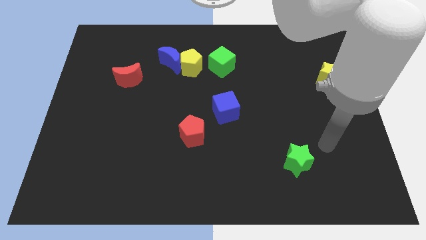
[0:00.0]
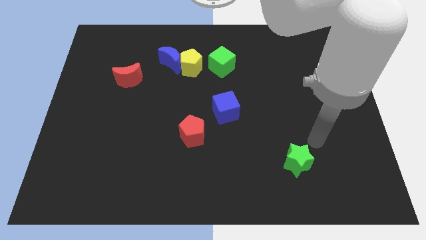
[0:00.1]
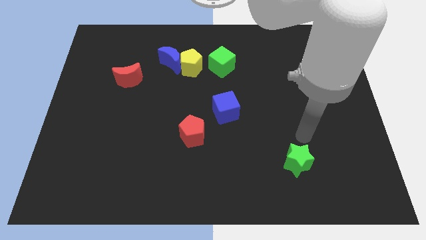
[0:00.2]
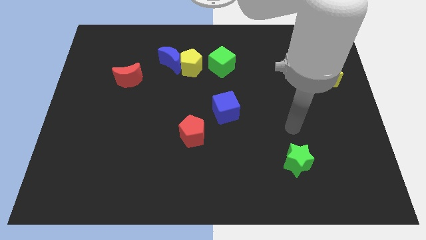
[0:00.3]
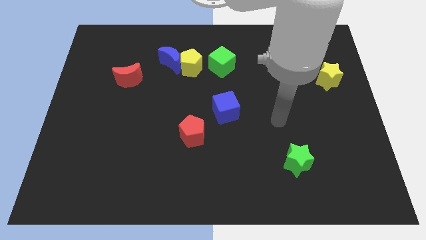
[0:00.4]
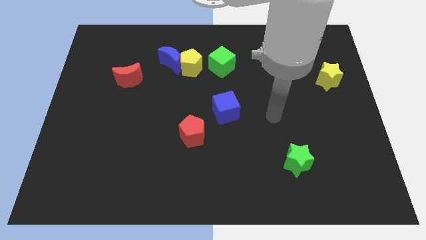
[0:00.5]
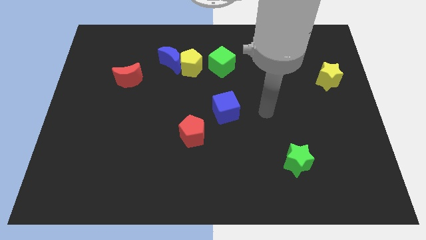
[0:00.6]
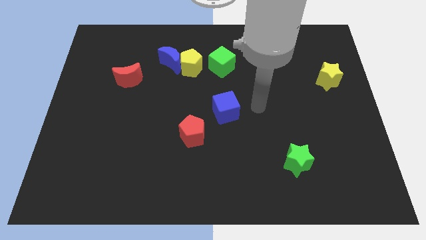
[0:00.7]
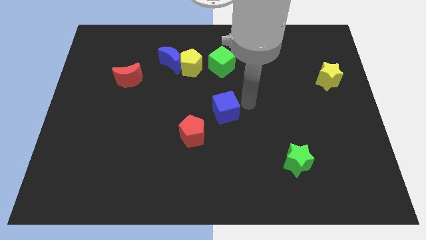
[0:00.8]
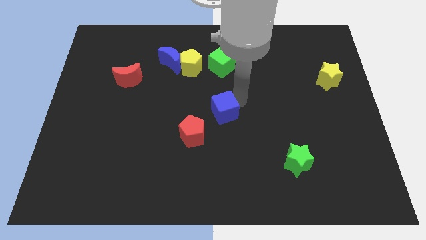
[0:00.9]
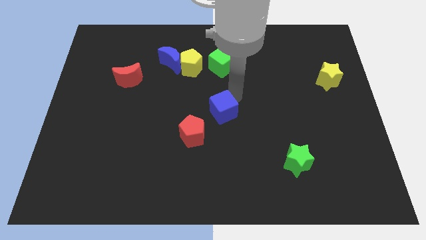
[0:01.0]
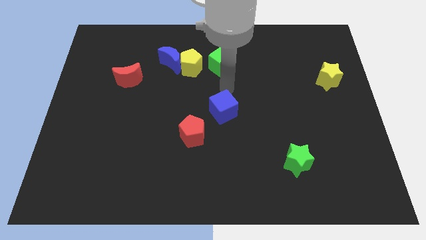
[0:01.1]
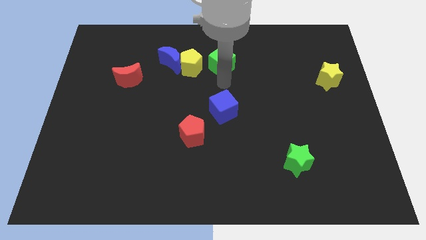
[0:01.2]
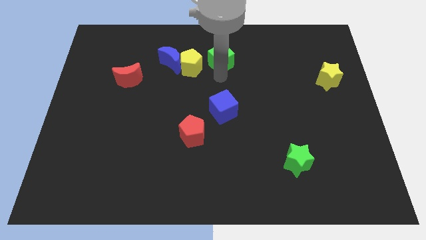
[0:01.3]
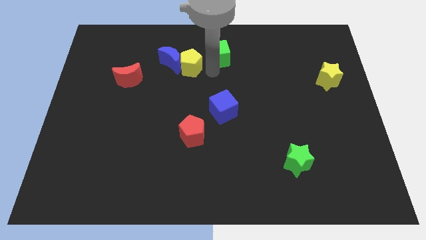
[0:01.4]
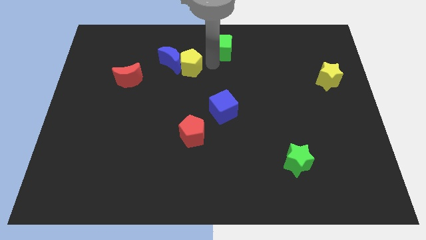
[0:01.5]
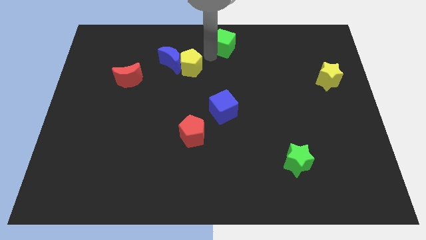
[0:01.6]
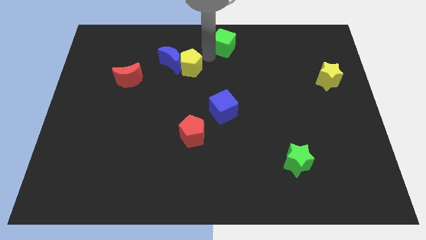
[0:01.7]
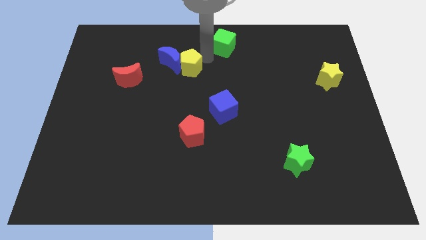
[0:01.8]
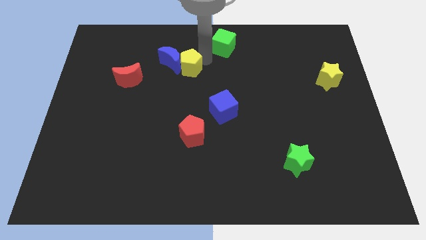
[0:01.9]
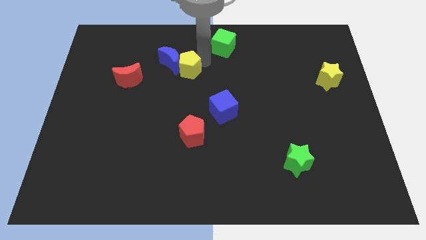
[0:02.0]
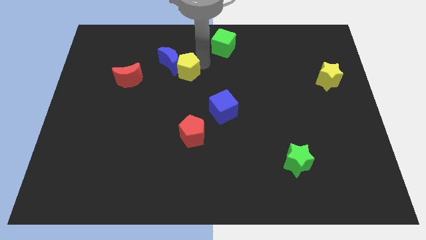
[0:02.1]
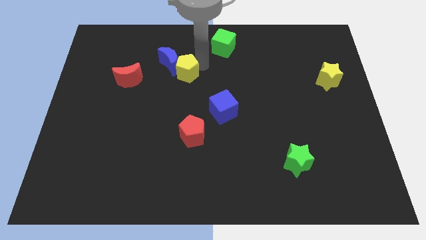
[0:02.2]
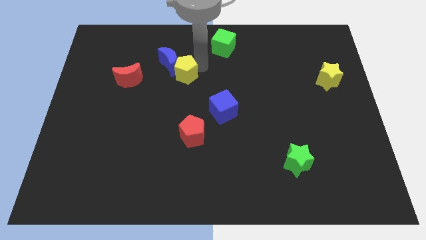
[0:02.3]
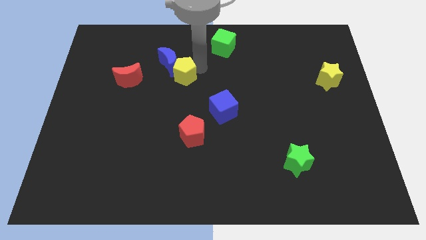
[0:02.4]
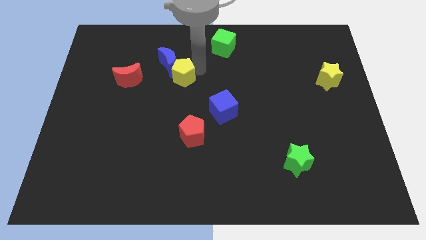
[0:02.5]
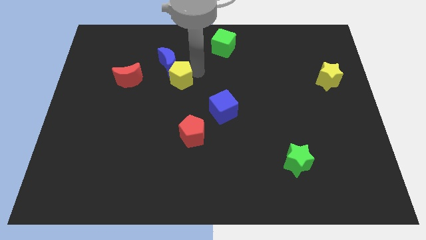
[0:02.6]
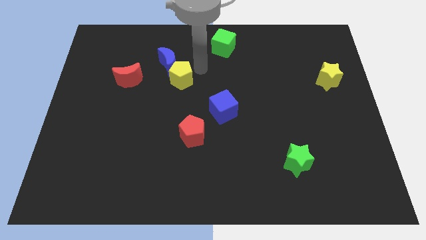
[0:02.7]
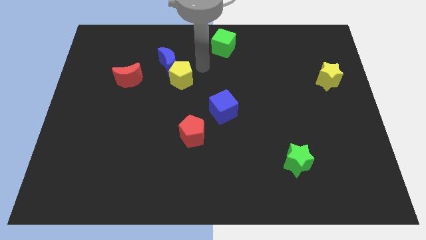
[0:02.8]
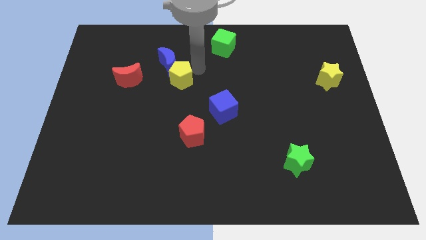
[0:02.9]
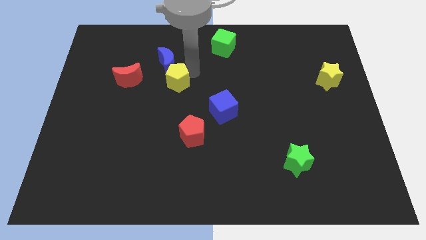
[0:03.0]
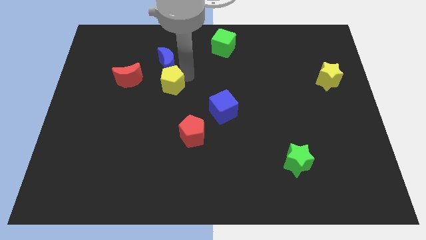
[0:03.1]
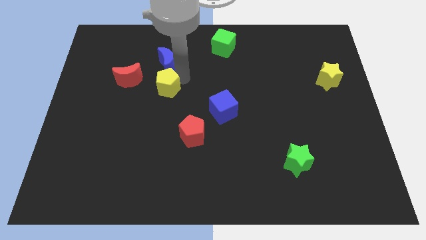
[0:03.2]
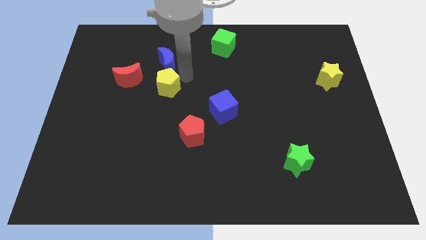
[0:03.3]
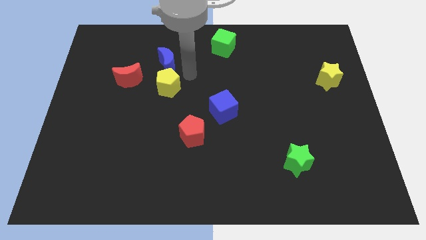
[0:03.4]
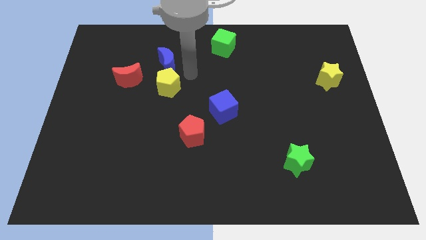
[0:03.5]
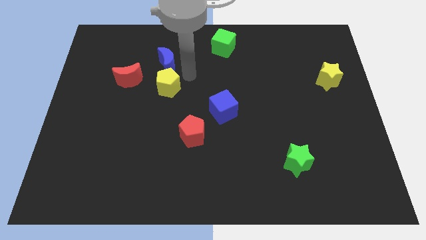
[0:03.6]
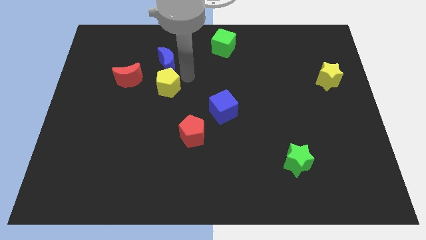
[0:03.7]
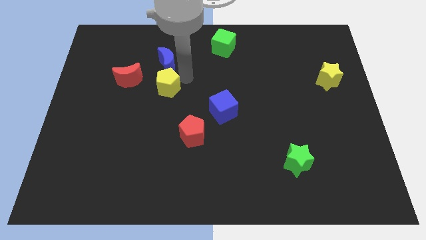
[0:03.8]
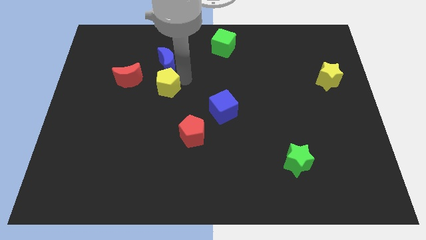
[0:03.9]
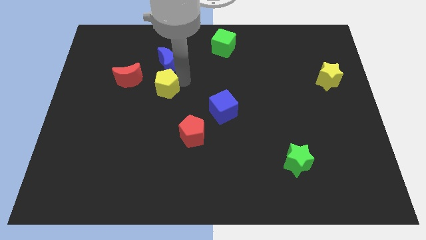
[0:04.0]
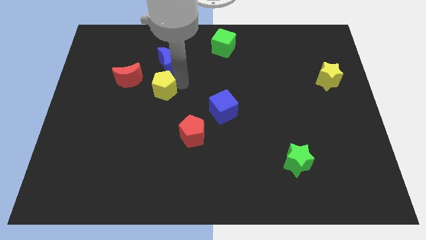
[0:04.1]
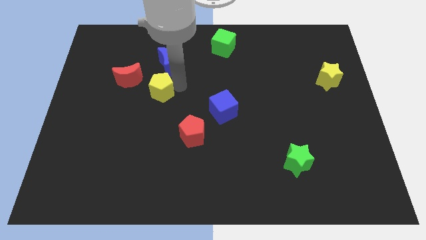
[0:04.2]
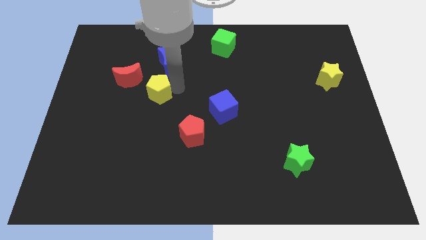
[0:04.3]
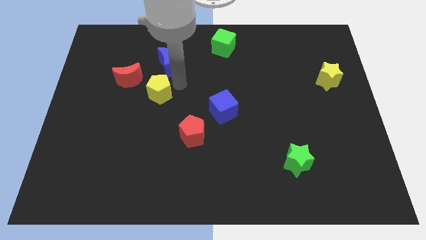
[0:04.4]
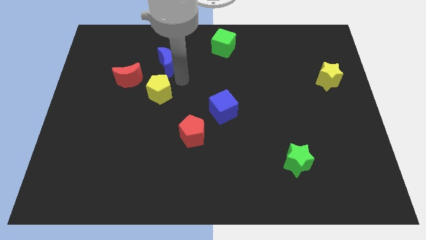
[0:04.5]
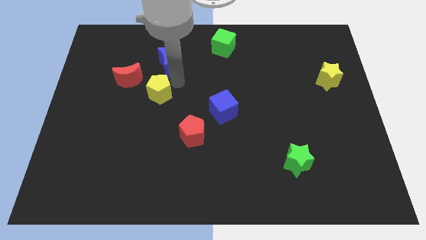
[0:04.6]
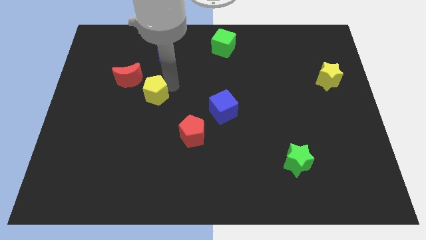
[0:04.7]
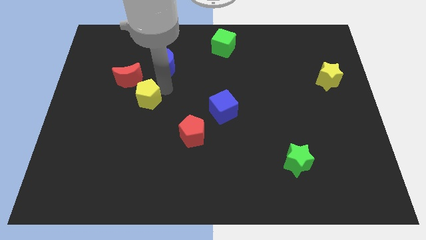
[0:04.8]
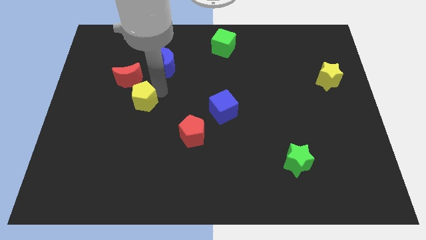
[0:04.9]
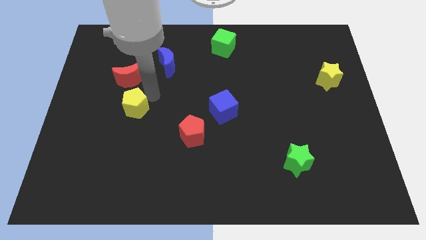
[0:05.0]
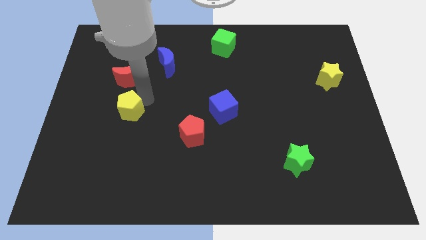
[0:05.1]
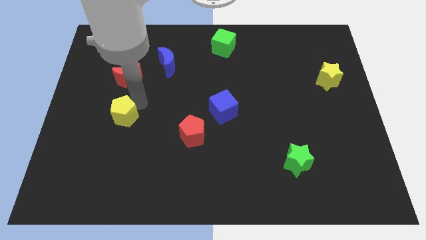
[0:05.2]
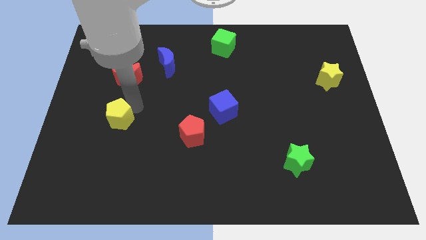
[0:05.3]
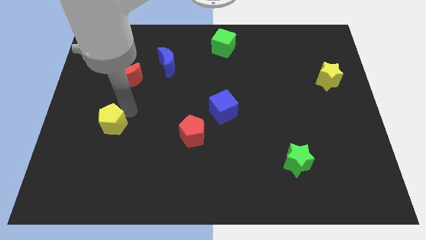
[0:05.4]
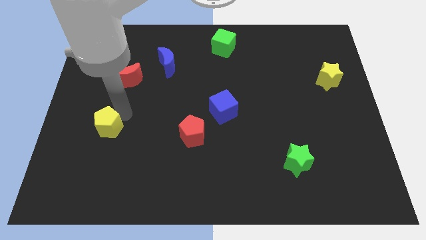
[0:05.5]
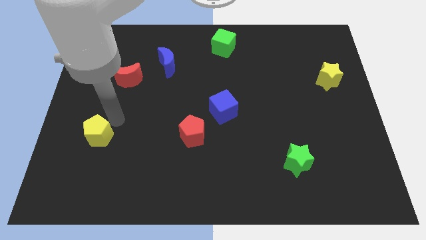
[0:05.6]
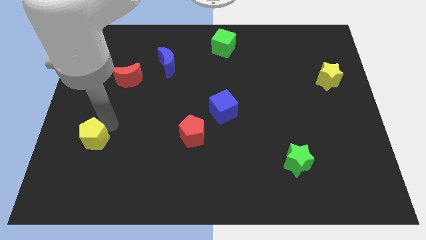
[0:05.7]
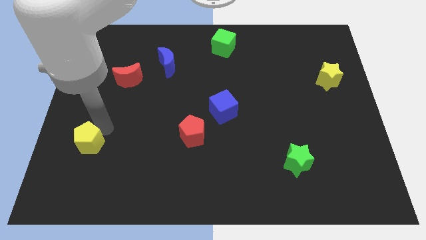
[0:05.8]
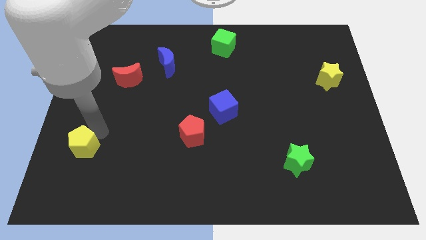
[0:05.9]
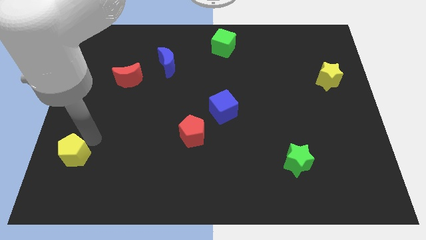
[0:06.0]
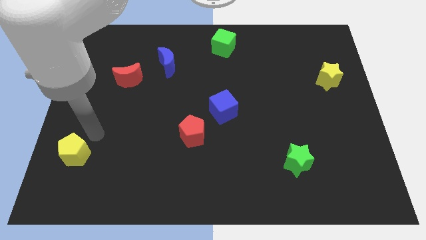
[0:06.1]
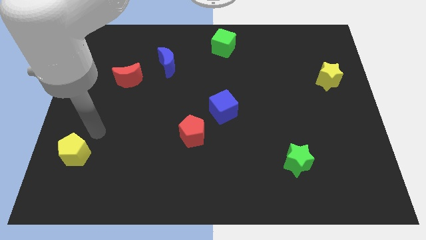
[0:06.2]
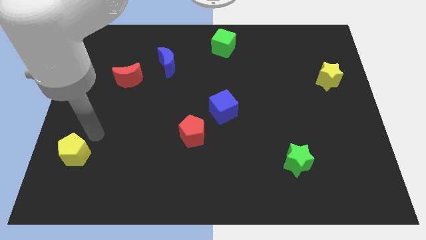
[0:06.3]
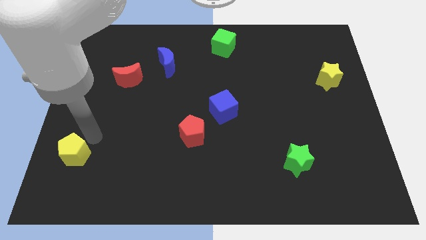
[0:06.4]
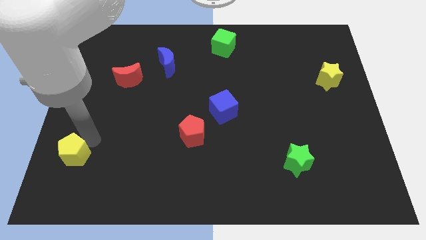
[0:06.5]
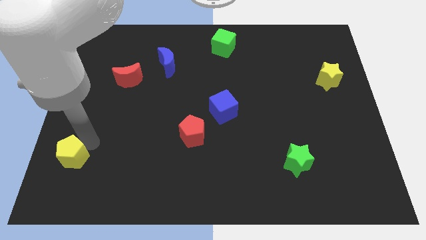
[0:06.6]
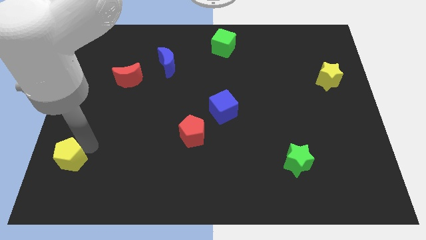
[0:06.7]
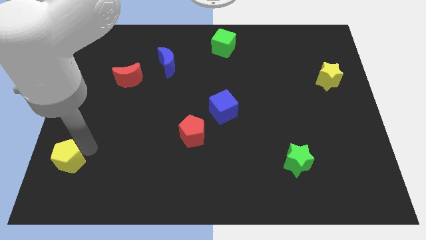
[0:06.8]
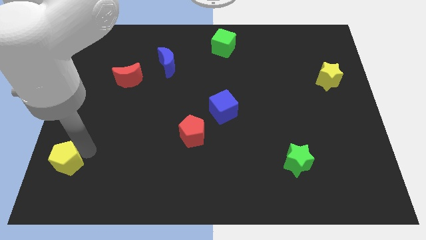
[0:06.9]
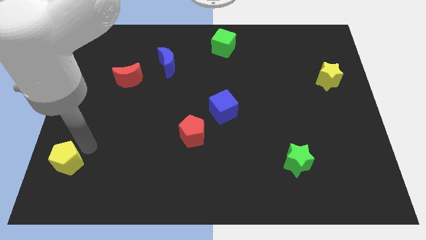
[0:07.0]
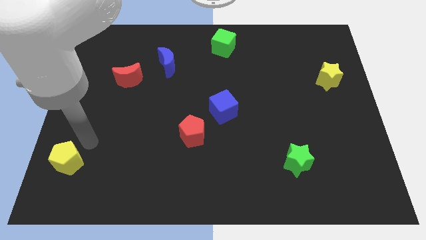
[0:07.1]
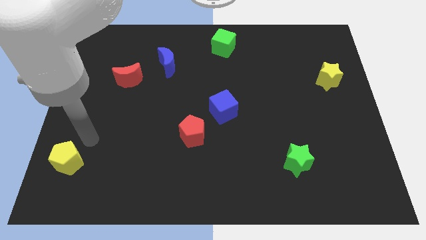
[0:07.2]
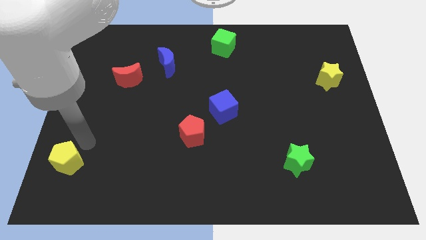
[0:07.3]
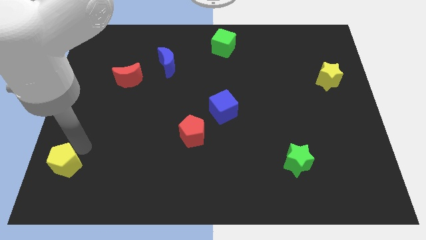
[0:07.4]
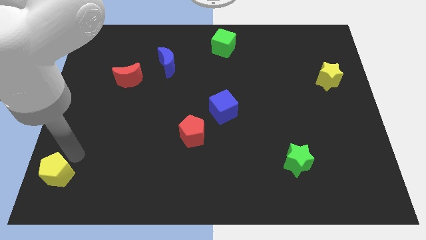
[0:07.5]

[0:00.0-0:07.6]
slide the yellow pentagon to the lower left corner
